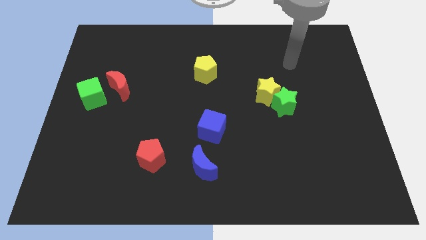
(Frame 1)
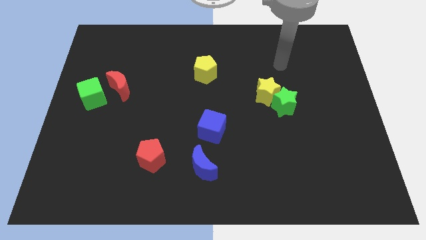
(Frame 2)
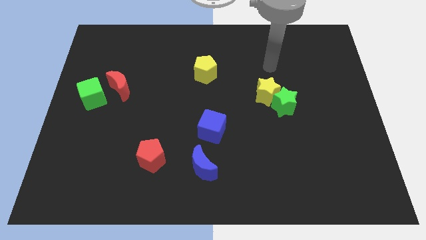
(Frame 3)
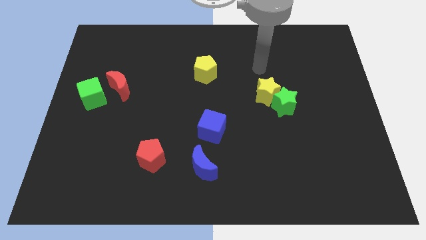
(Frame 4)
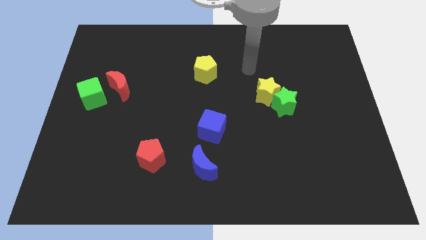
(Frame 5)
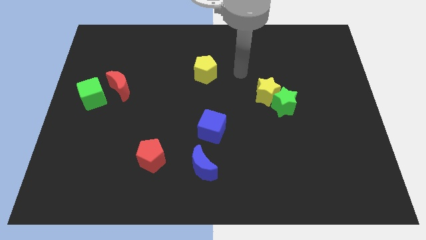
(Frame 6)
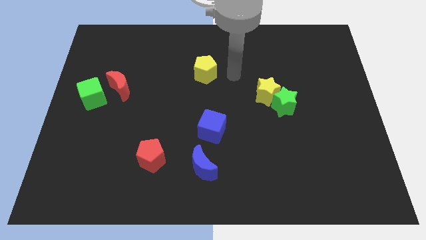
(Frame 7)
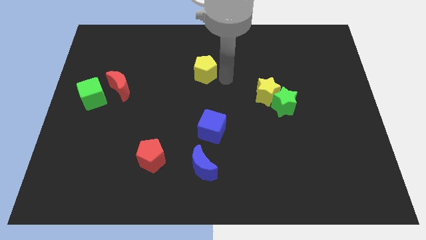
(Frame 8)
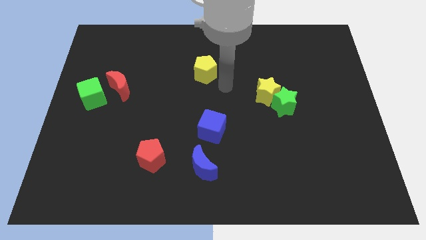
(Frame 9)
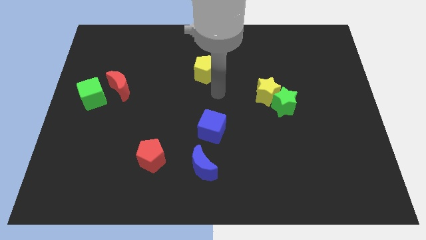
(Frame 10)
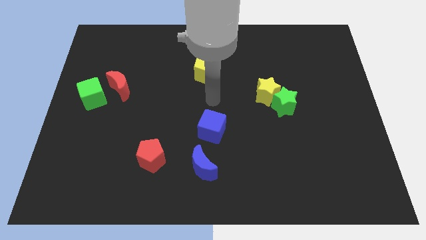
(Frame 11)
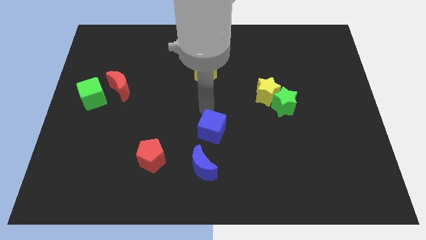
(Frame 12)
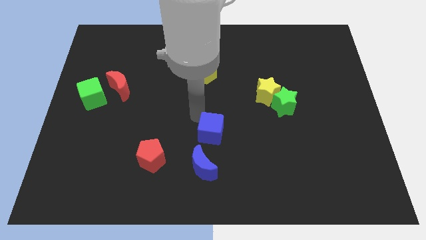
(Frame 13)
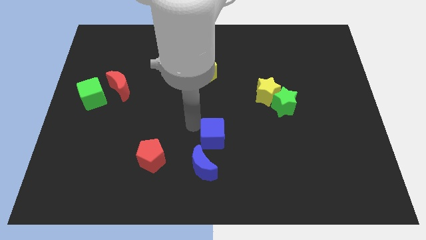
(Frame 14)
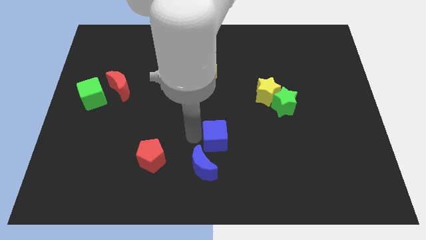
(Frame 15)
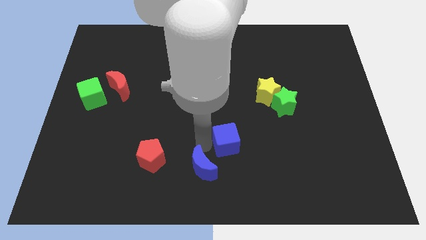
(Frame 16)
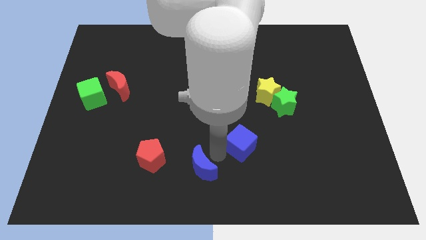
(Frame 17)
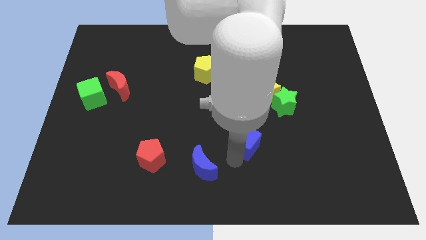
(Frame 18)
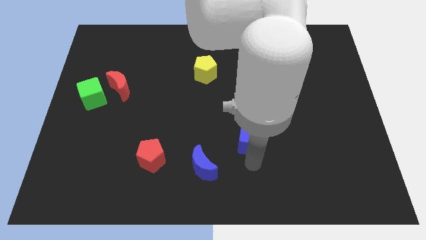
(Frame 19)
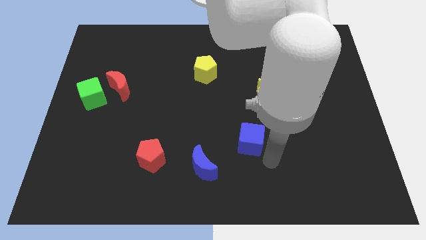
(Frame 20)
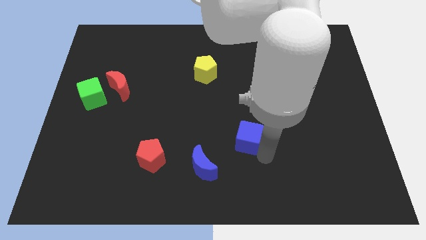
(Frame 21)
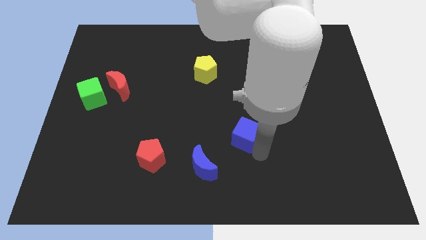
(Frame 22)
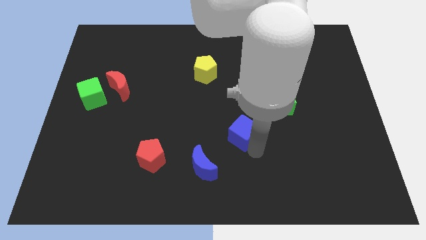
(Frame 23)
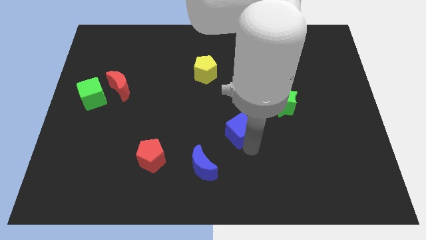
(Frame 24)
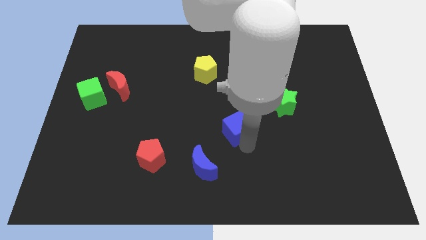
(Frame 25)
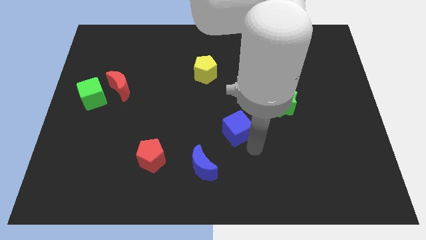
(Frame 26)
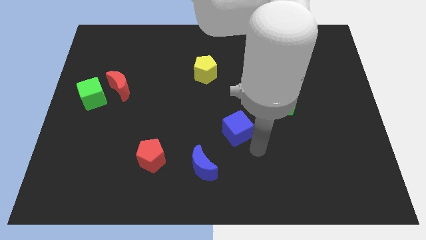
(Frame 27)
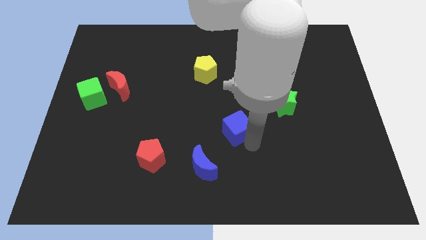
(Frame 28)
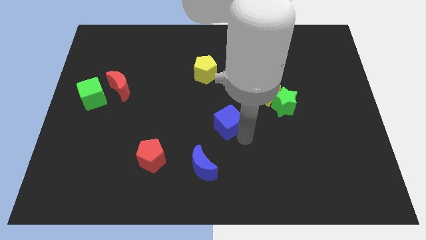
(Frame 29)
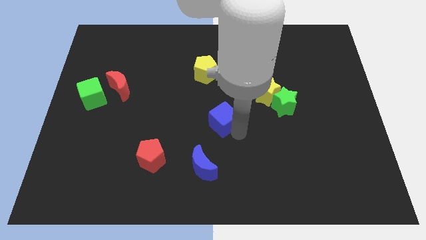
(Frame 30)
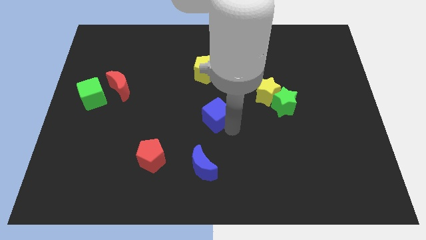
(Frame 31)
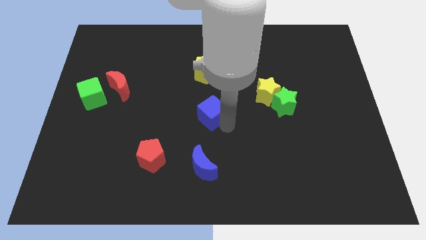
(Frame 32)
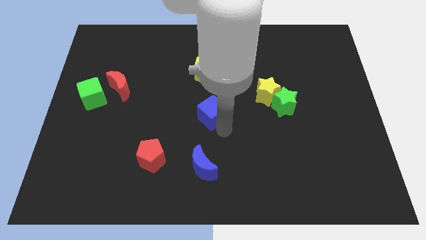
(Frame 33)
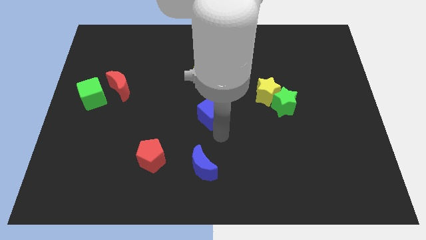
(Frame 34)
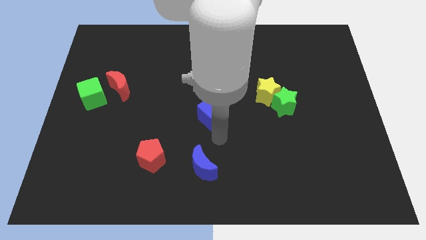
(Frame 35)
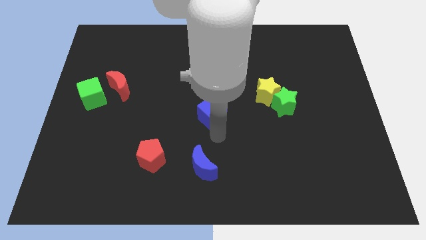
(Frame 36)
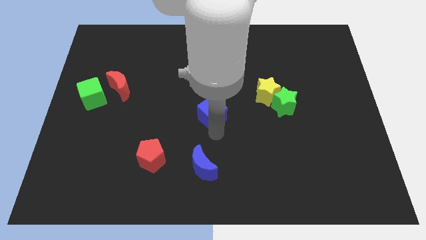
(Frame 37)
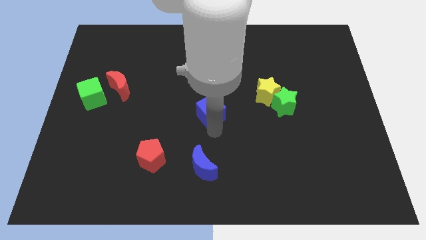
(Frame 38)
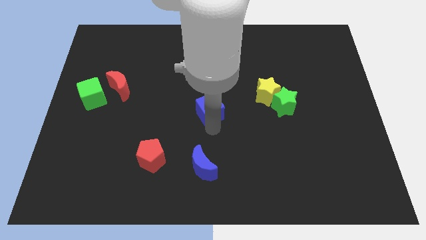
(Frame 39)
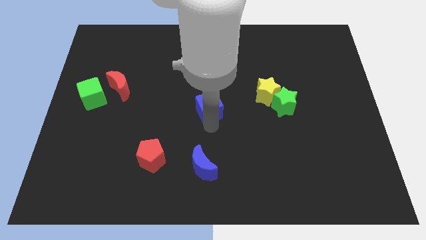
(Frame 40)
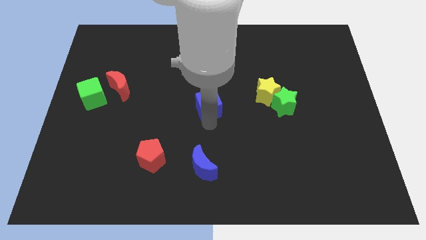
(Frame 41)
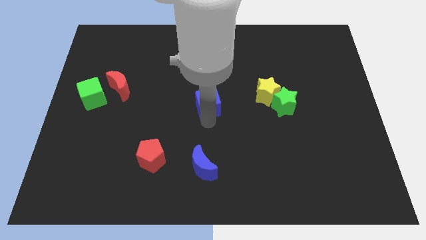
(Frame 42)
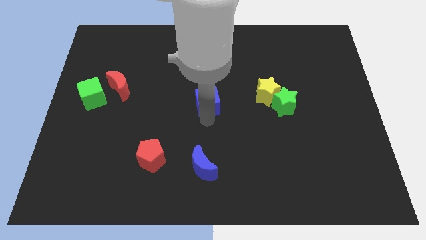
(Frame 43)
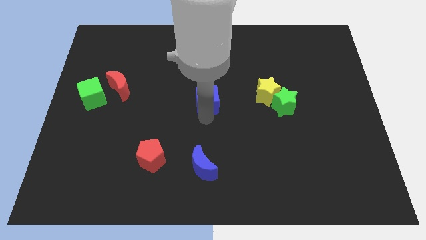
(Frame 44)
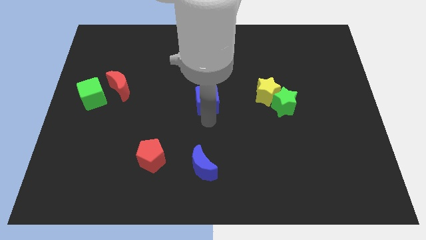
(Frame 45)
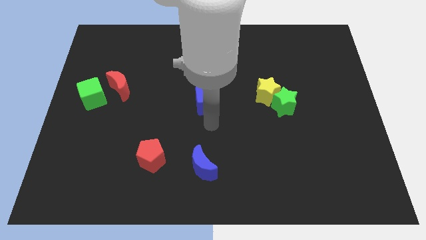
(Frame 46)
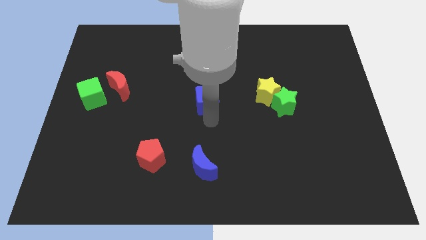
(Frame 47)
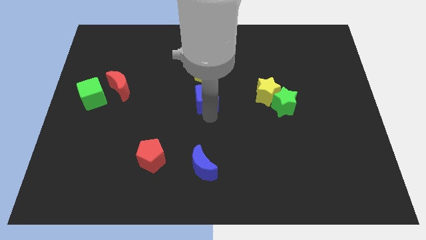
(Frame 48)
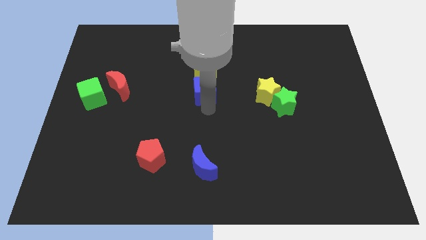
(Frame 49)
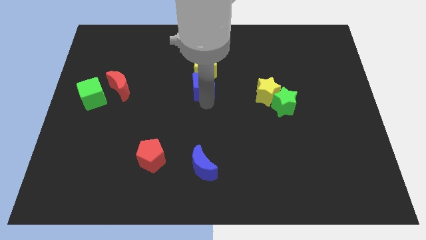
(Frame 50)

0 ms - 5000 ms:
push the blue cube towards the yellow pentagon

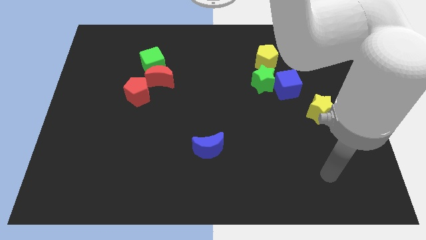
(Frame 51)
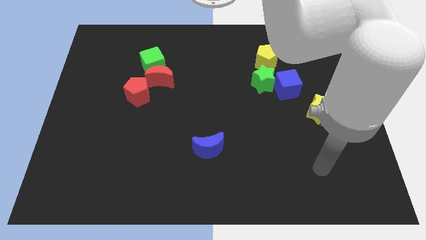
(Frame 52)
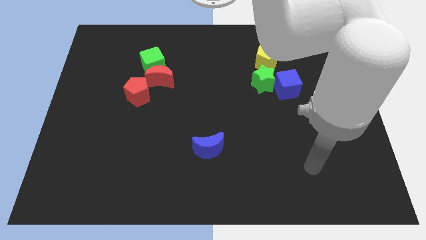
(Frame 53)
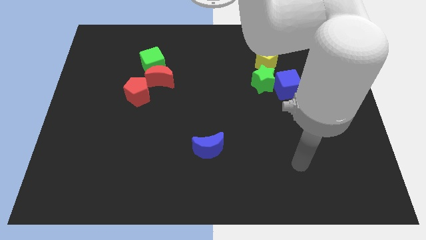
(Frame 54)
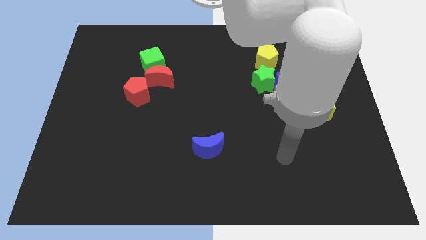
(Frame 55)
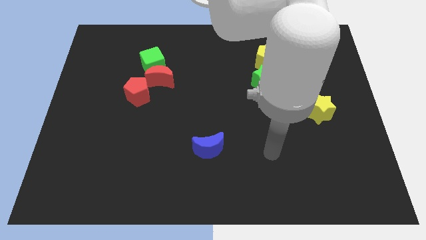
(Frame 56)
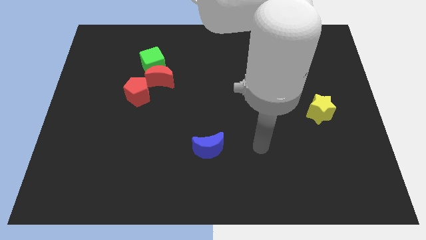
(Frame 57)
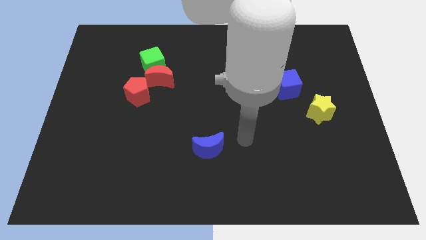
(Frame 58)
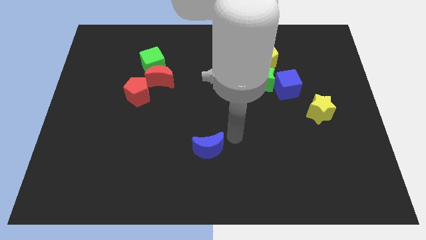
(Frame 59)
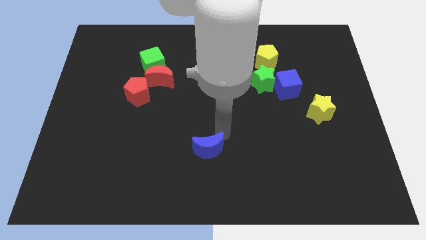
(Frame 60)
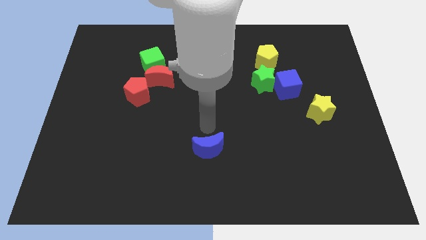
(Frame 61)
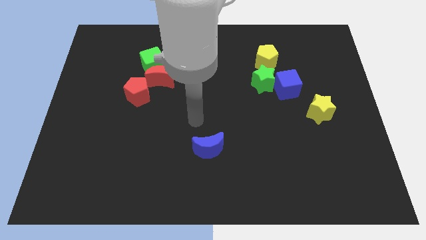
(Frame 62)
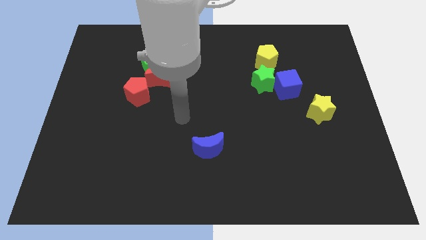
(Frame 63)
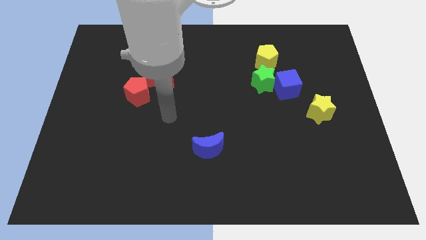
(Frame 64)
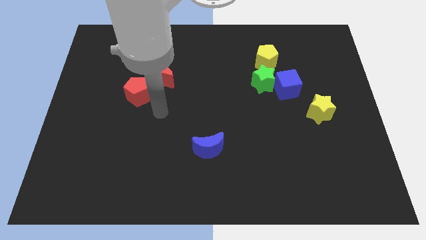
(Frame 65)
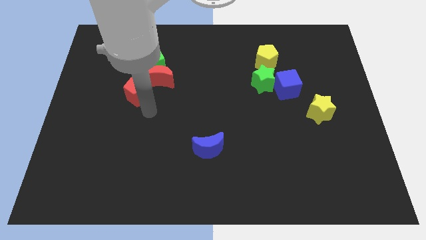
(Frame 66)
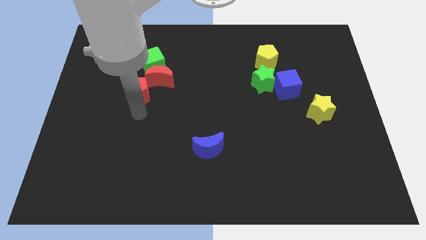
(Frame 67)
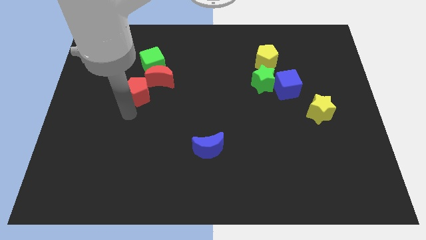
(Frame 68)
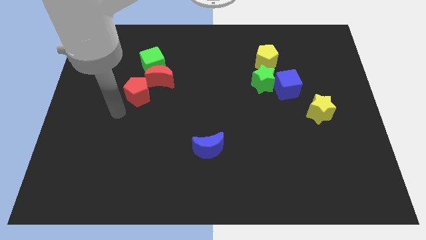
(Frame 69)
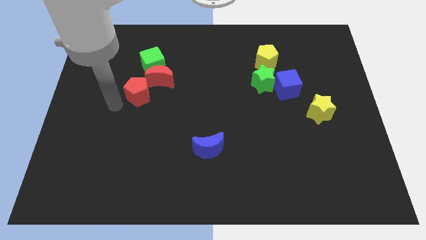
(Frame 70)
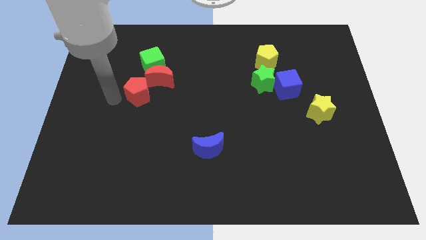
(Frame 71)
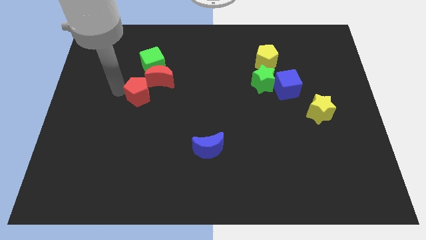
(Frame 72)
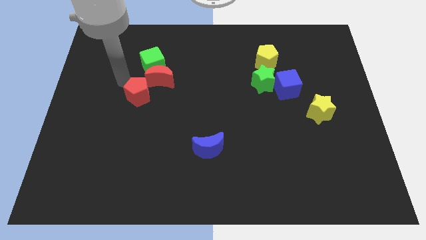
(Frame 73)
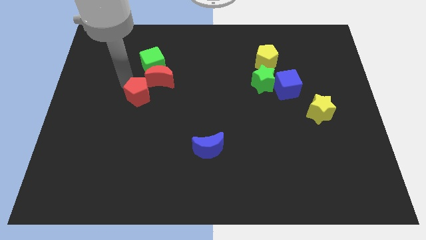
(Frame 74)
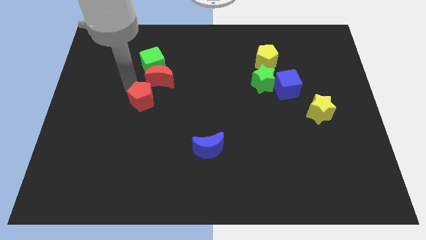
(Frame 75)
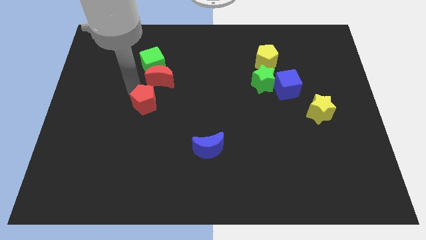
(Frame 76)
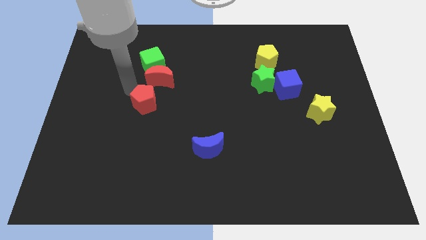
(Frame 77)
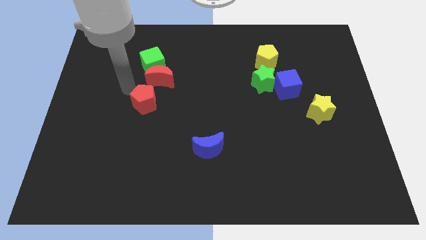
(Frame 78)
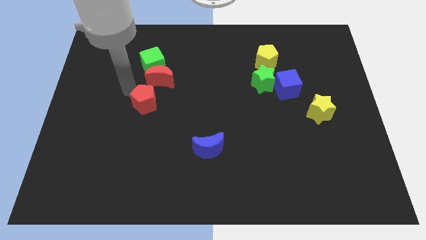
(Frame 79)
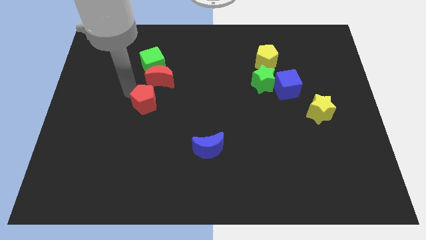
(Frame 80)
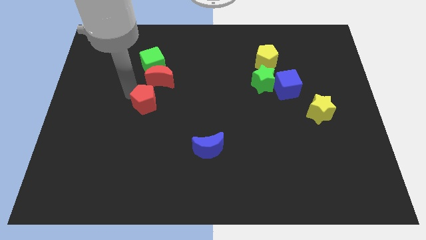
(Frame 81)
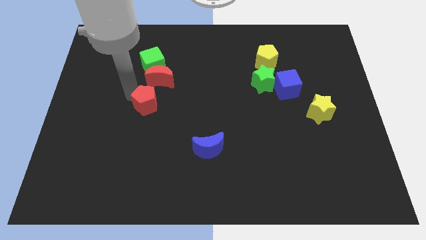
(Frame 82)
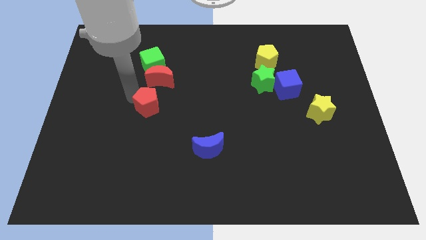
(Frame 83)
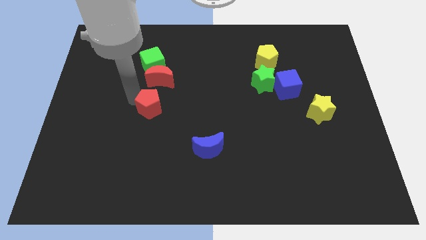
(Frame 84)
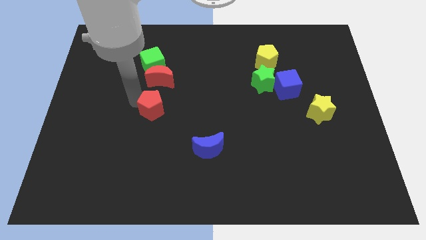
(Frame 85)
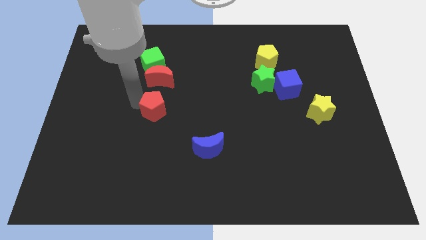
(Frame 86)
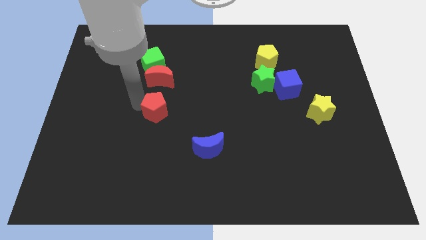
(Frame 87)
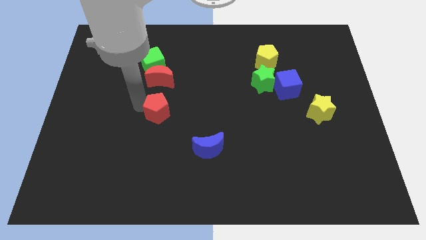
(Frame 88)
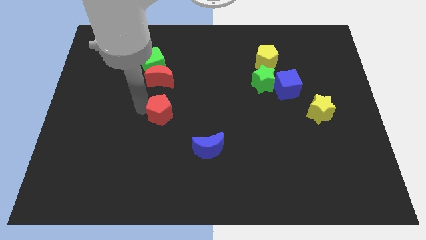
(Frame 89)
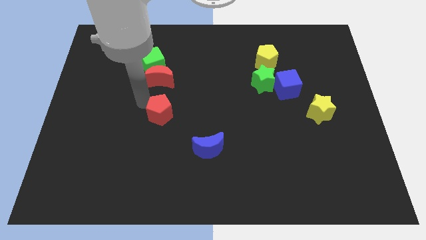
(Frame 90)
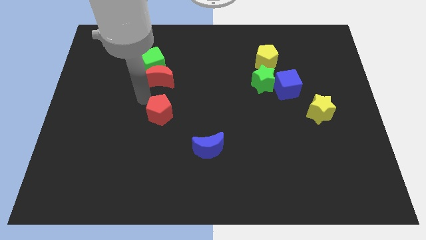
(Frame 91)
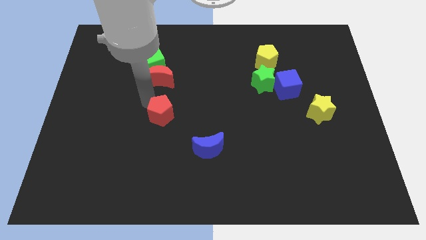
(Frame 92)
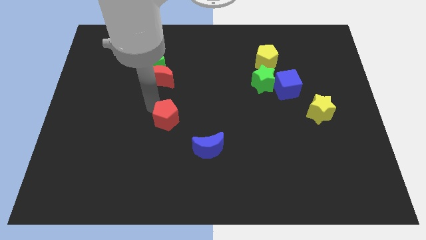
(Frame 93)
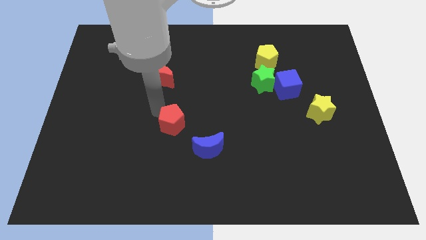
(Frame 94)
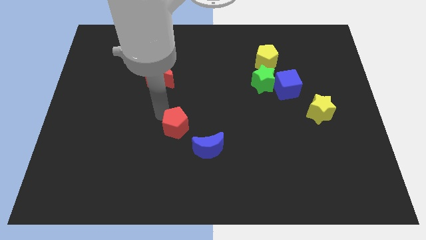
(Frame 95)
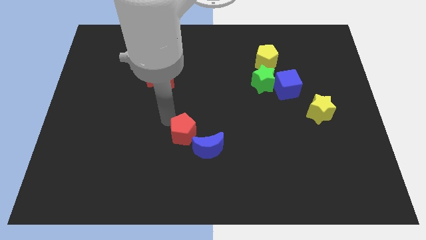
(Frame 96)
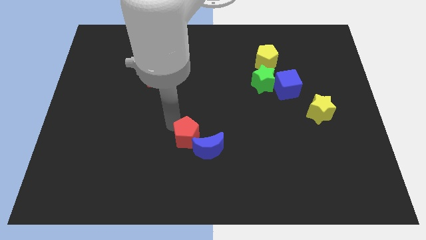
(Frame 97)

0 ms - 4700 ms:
slide the red pentagon towards the blue moon
